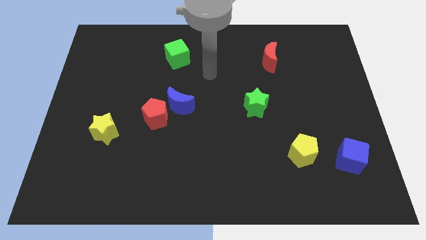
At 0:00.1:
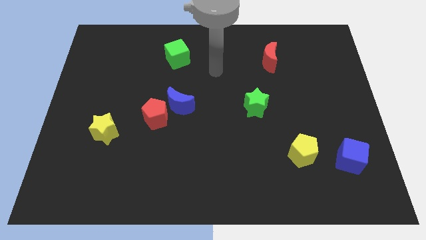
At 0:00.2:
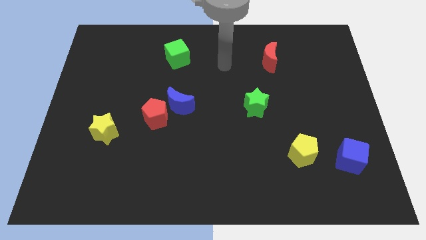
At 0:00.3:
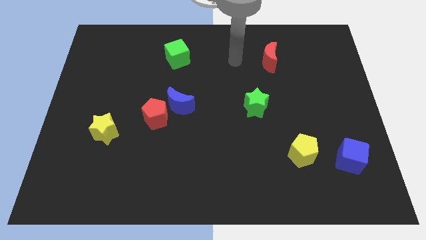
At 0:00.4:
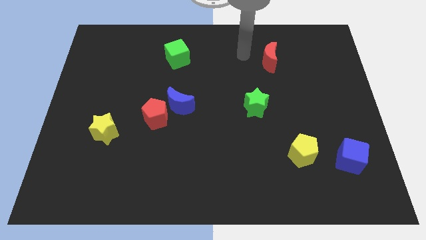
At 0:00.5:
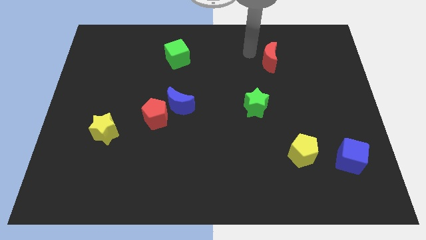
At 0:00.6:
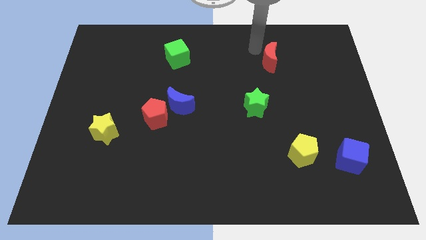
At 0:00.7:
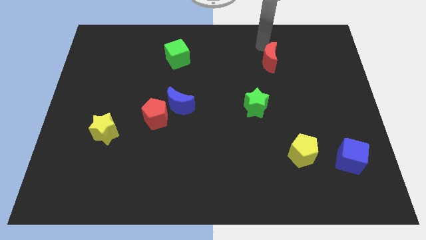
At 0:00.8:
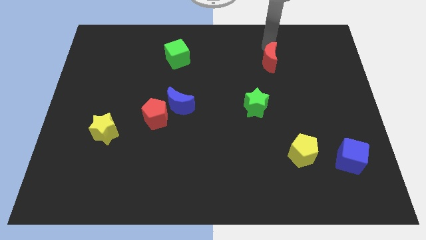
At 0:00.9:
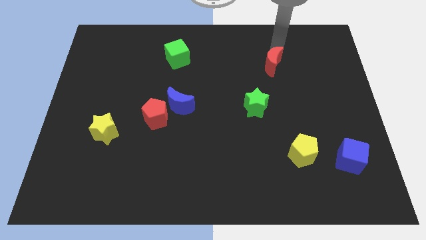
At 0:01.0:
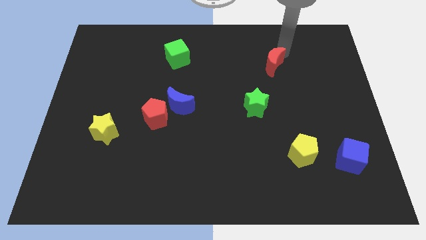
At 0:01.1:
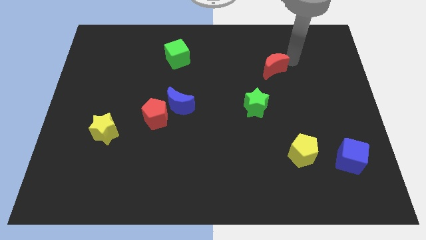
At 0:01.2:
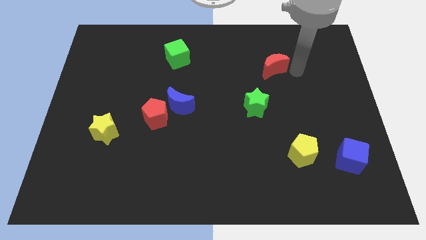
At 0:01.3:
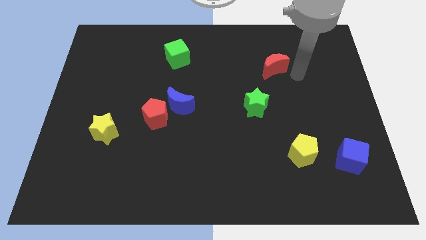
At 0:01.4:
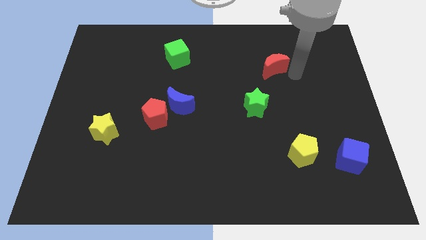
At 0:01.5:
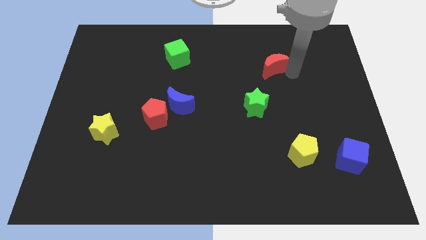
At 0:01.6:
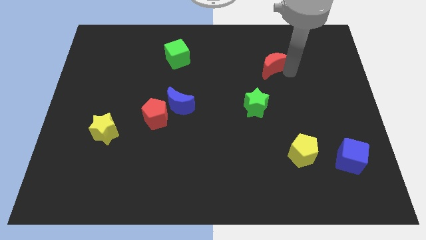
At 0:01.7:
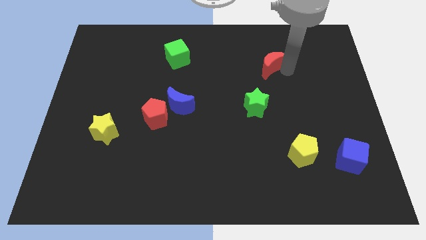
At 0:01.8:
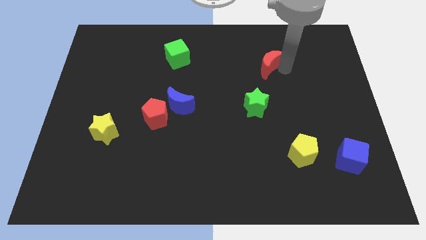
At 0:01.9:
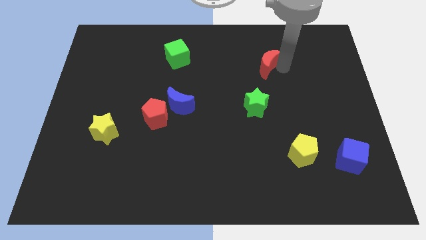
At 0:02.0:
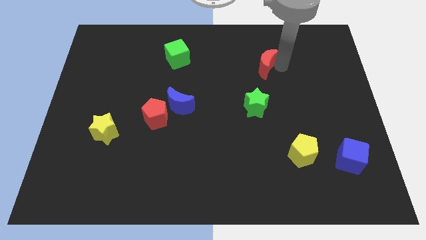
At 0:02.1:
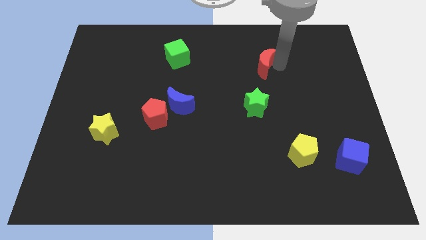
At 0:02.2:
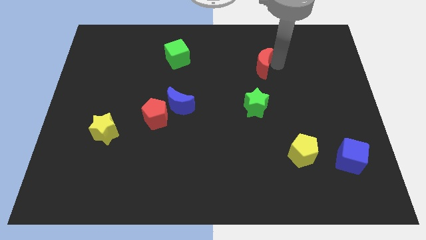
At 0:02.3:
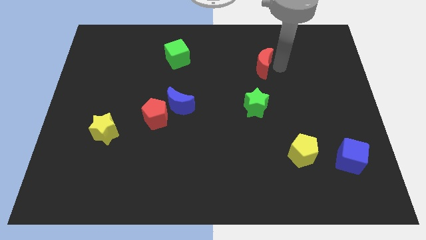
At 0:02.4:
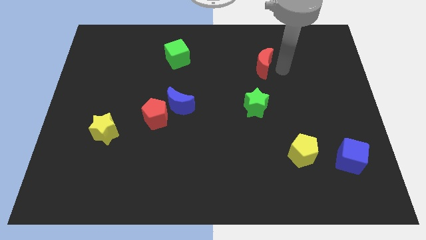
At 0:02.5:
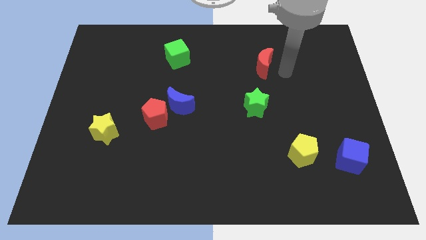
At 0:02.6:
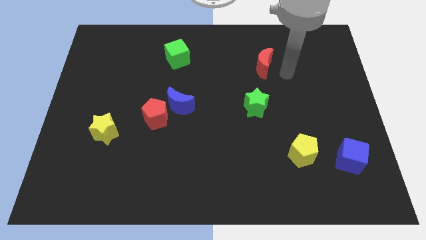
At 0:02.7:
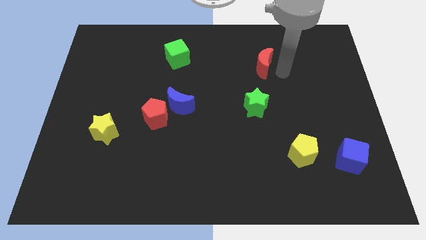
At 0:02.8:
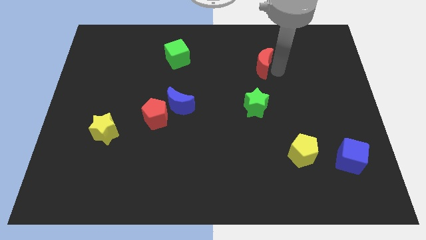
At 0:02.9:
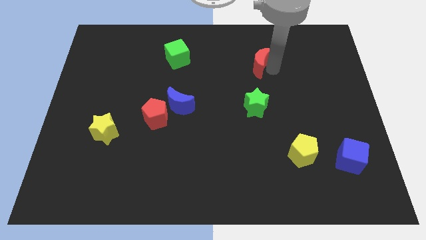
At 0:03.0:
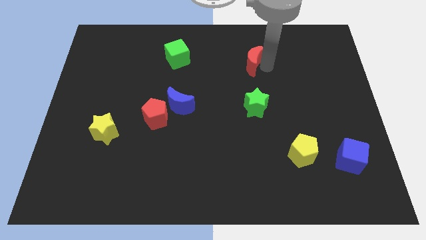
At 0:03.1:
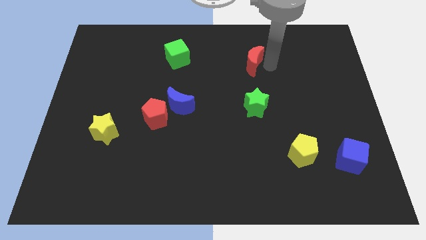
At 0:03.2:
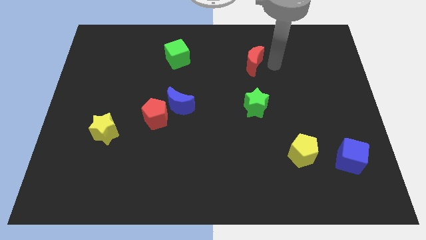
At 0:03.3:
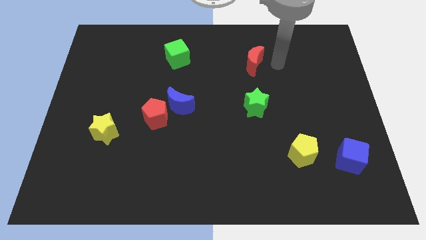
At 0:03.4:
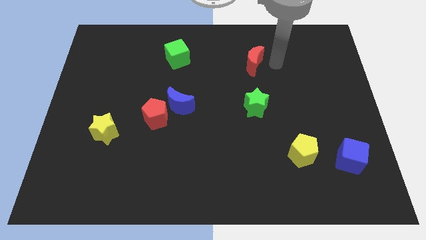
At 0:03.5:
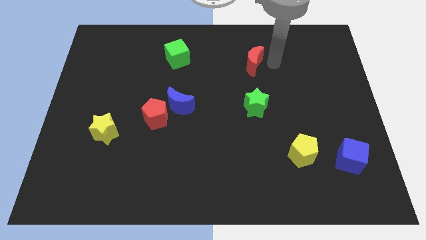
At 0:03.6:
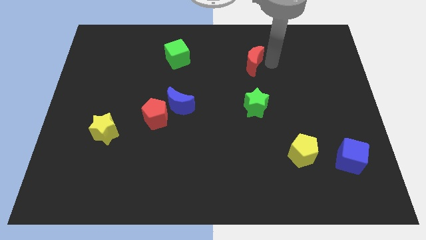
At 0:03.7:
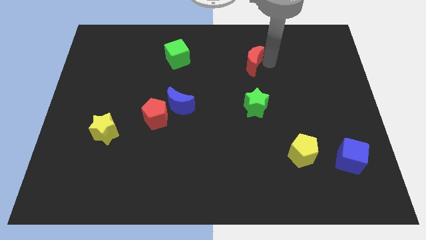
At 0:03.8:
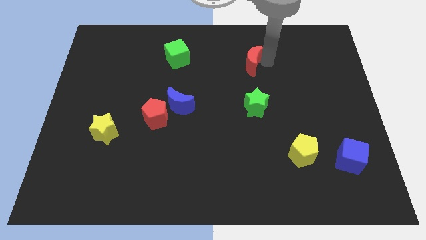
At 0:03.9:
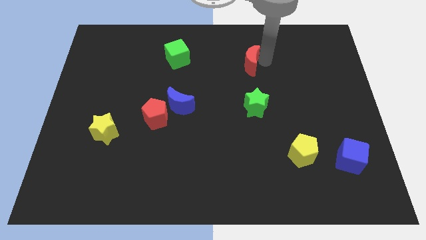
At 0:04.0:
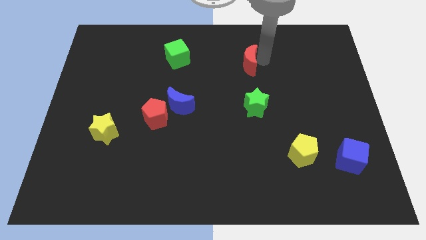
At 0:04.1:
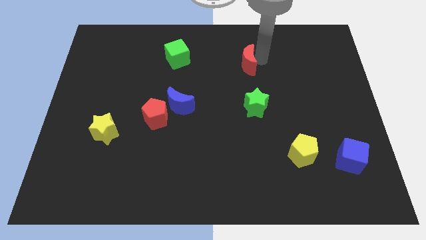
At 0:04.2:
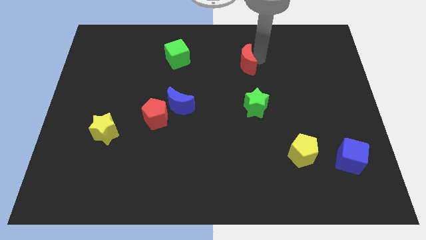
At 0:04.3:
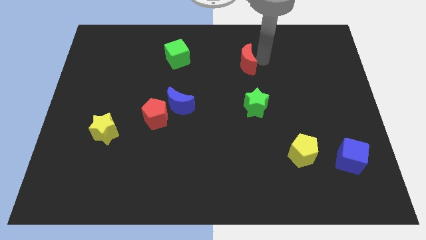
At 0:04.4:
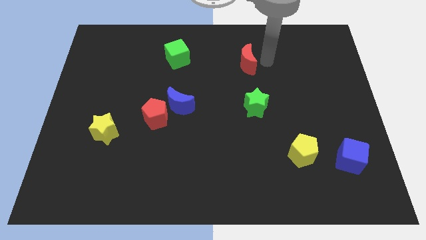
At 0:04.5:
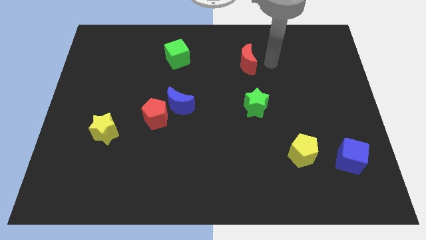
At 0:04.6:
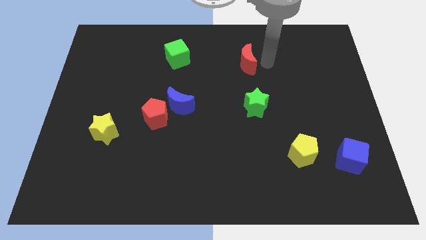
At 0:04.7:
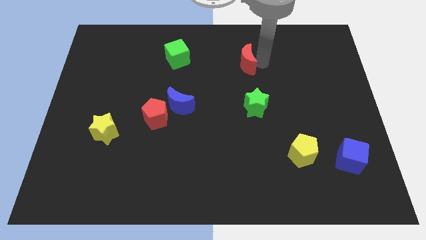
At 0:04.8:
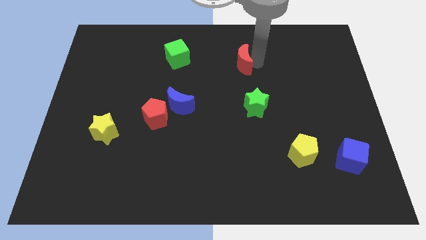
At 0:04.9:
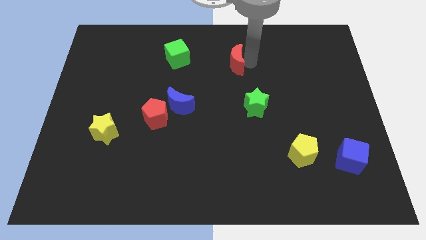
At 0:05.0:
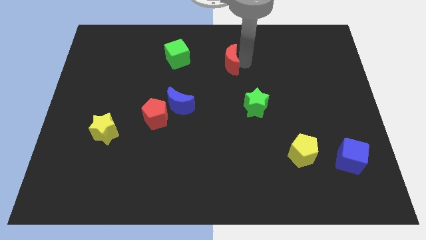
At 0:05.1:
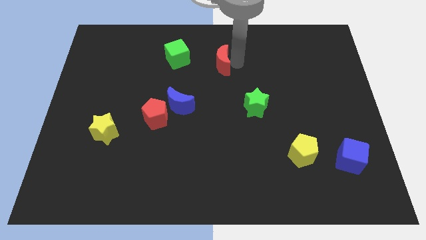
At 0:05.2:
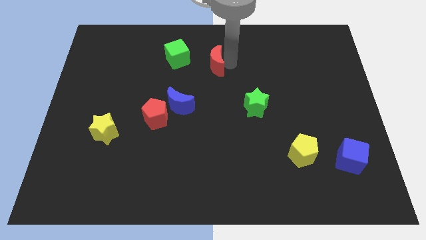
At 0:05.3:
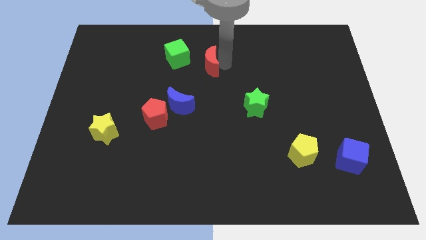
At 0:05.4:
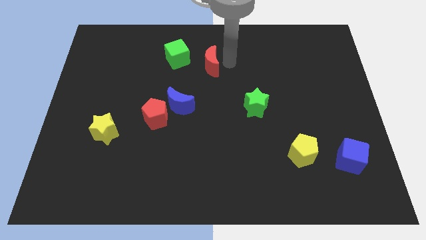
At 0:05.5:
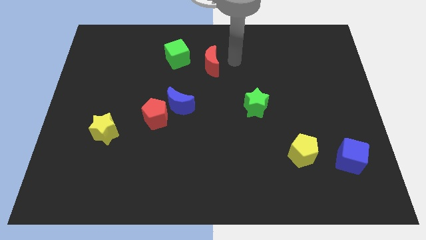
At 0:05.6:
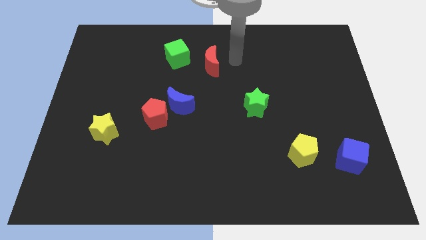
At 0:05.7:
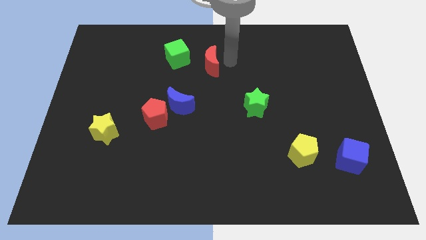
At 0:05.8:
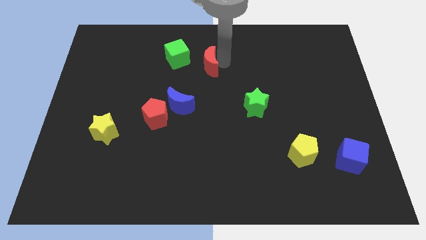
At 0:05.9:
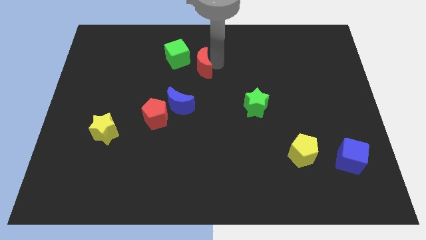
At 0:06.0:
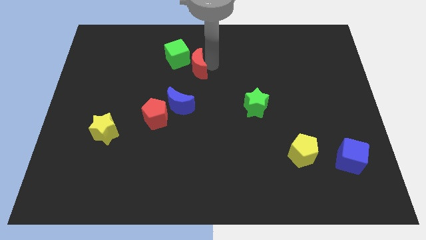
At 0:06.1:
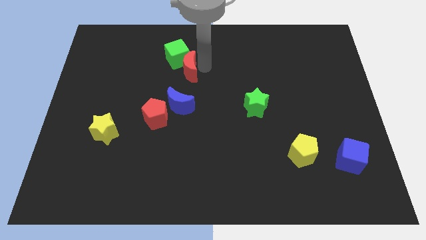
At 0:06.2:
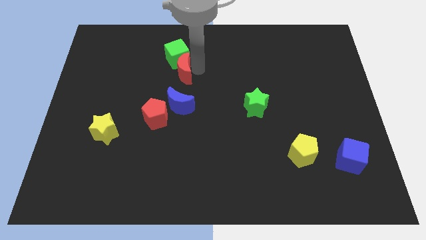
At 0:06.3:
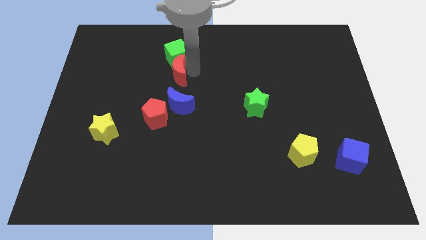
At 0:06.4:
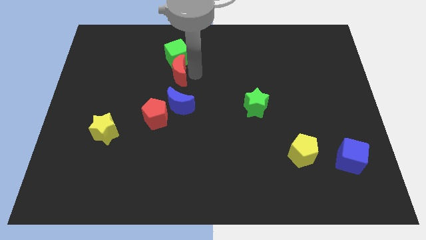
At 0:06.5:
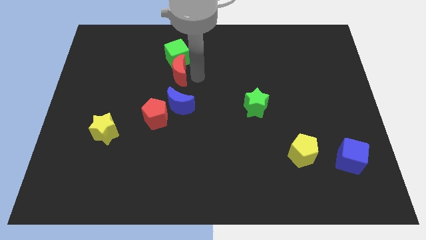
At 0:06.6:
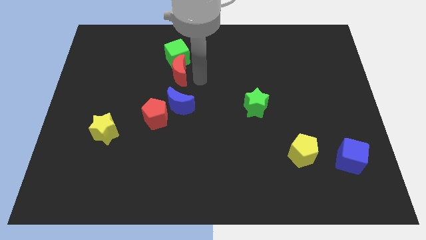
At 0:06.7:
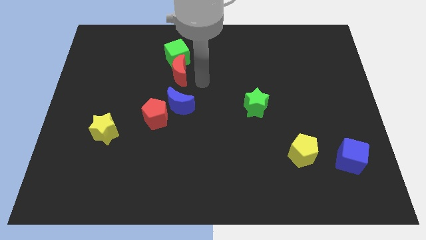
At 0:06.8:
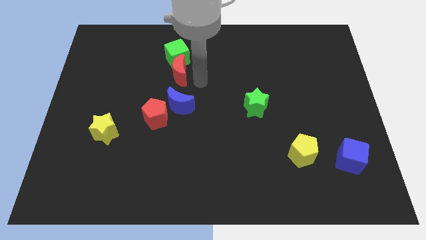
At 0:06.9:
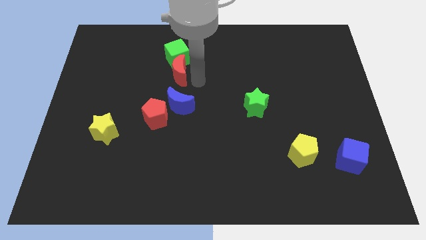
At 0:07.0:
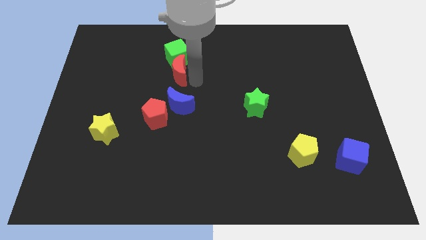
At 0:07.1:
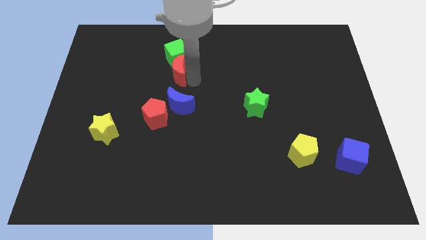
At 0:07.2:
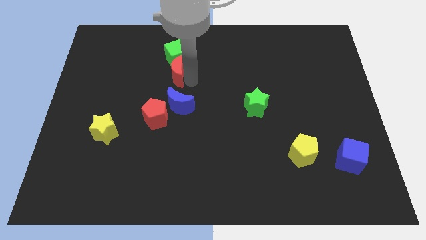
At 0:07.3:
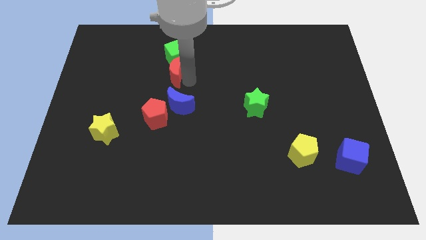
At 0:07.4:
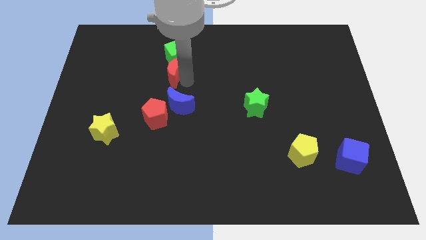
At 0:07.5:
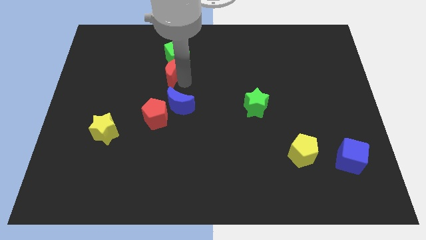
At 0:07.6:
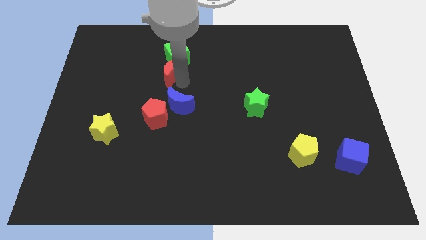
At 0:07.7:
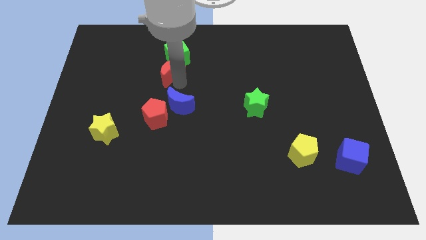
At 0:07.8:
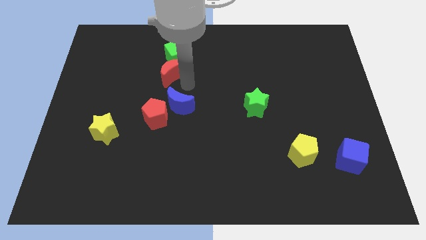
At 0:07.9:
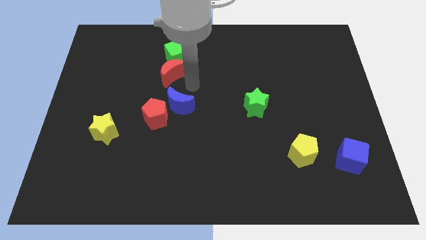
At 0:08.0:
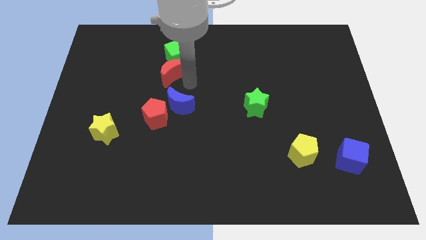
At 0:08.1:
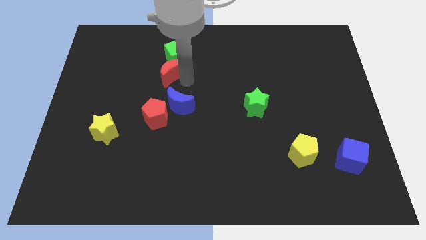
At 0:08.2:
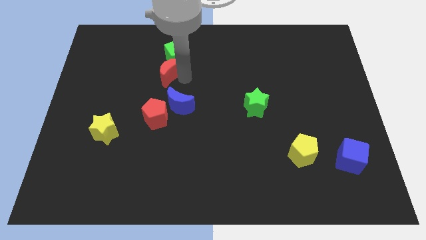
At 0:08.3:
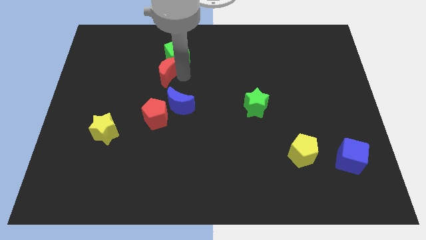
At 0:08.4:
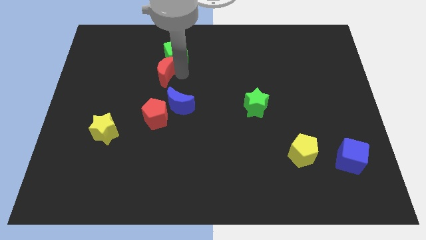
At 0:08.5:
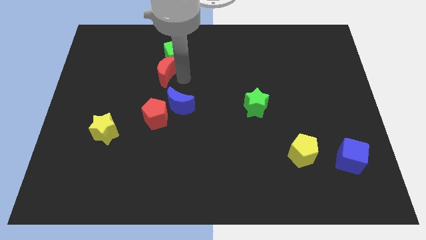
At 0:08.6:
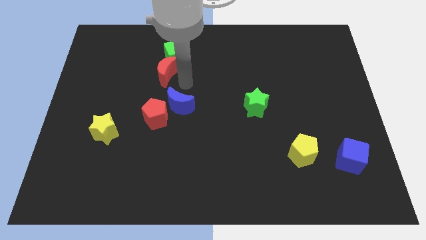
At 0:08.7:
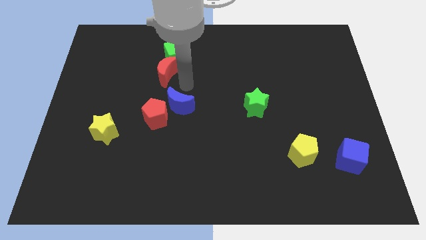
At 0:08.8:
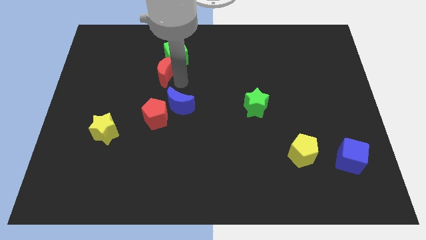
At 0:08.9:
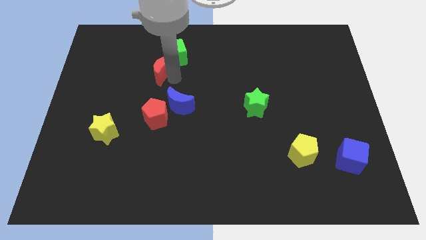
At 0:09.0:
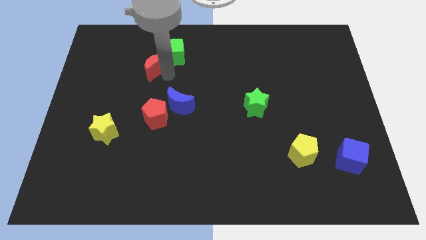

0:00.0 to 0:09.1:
put the red moon left of the green cube
